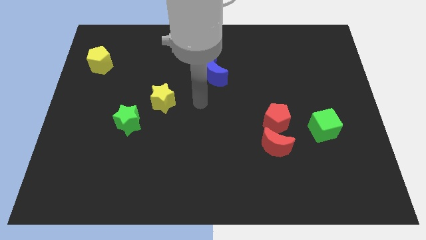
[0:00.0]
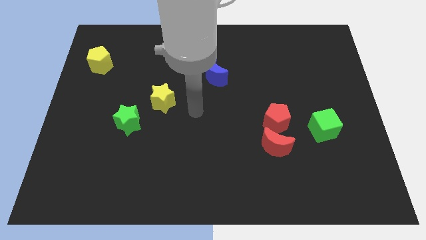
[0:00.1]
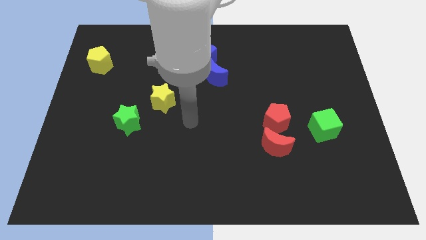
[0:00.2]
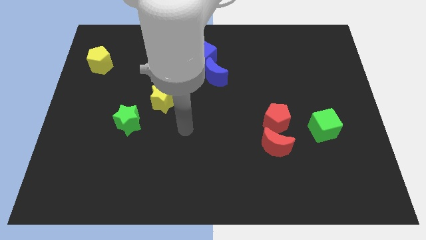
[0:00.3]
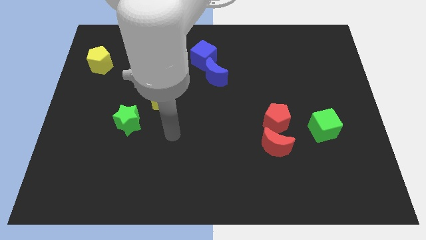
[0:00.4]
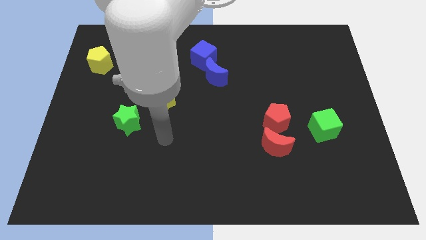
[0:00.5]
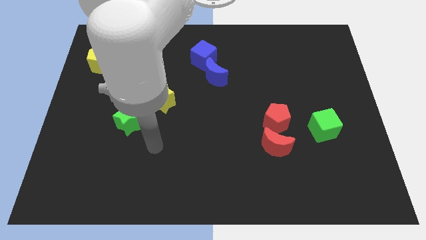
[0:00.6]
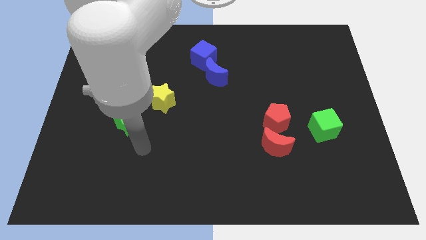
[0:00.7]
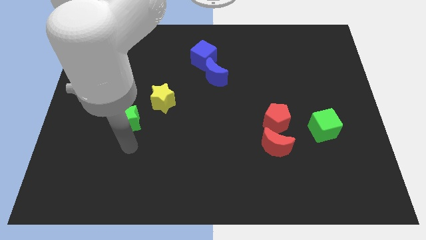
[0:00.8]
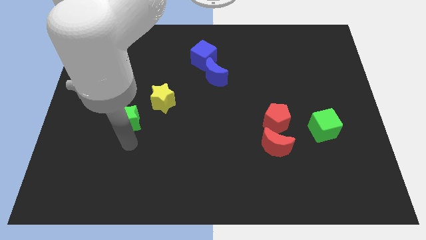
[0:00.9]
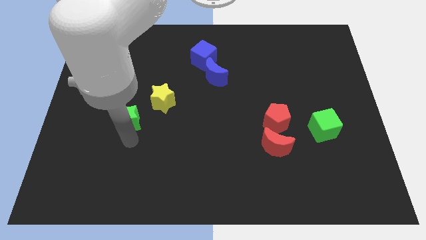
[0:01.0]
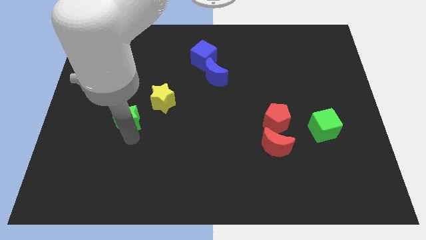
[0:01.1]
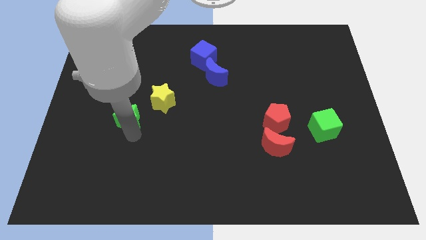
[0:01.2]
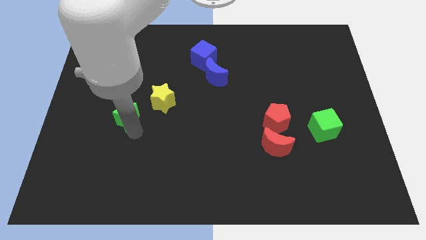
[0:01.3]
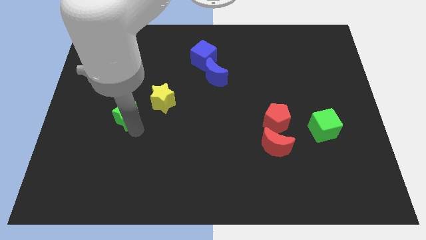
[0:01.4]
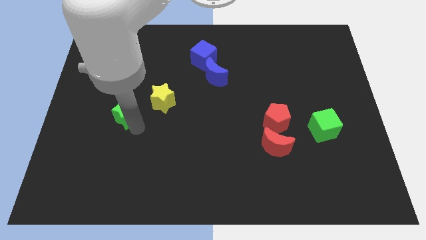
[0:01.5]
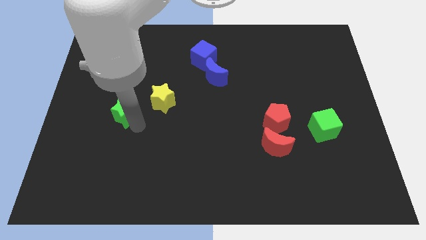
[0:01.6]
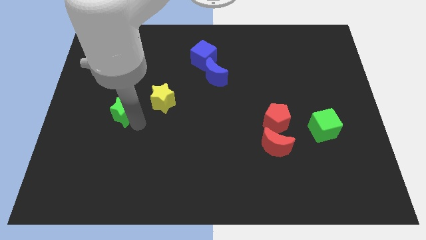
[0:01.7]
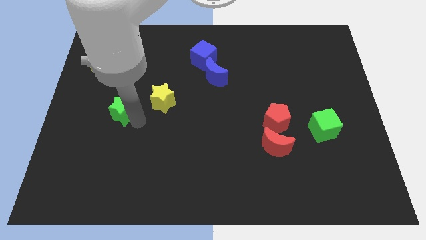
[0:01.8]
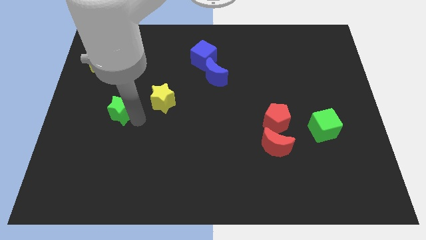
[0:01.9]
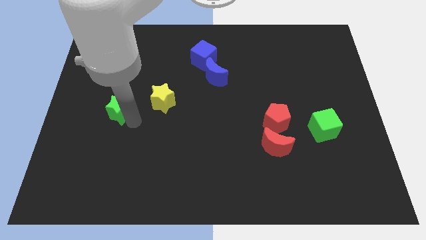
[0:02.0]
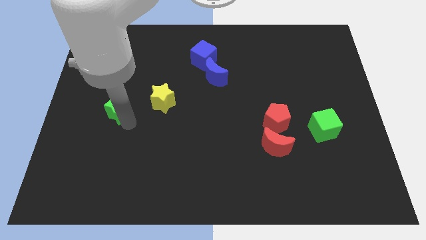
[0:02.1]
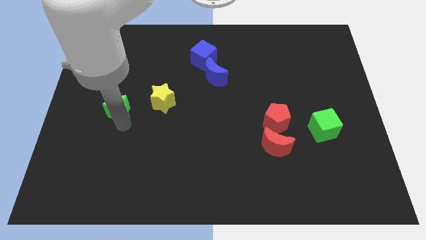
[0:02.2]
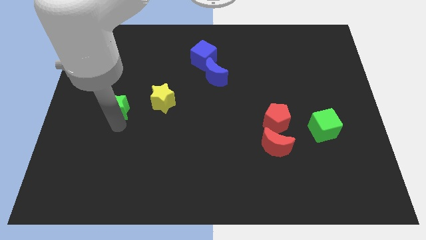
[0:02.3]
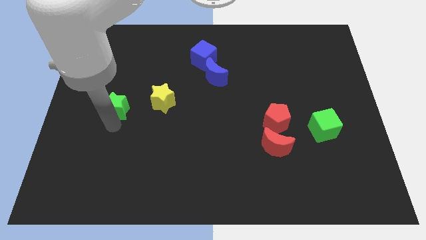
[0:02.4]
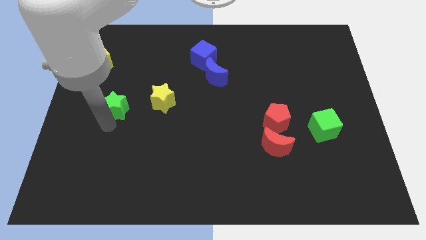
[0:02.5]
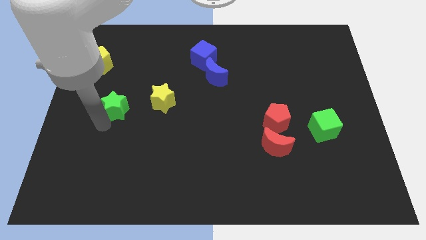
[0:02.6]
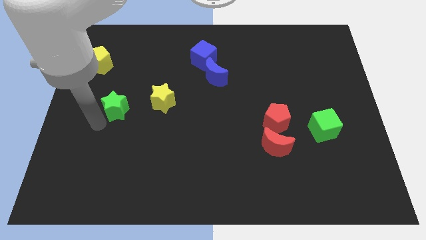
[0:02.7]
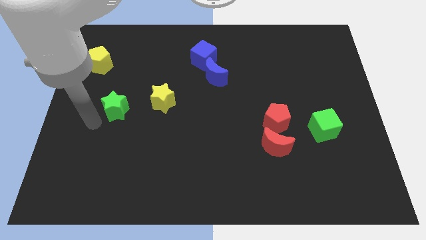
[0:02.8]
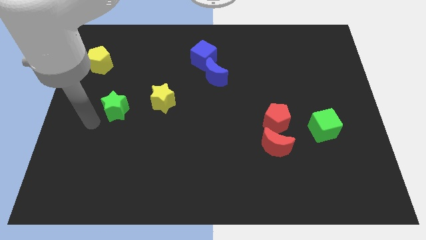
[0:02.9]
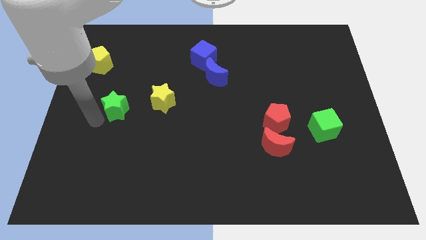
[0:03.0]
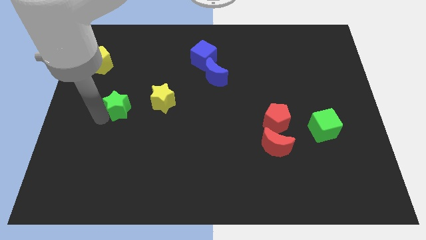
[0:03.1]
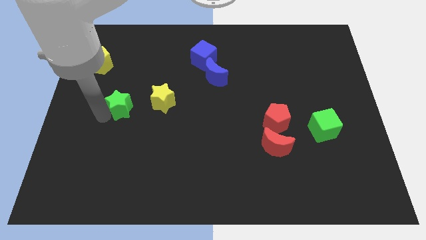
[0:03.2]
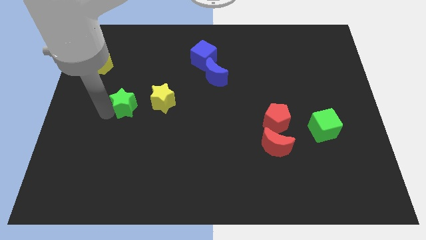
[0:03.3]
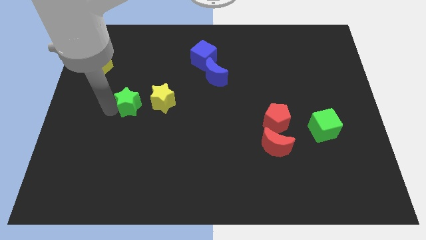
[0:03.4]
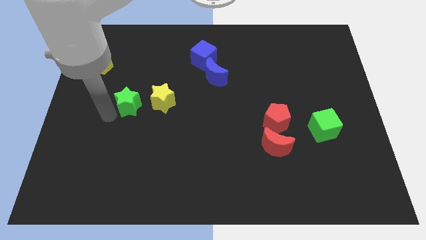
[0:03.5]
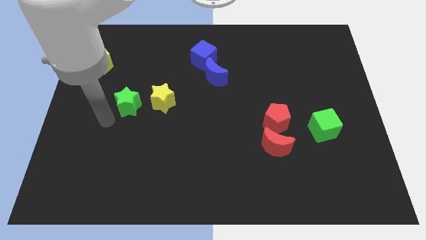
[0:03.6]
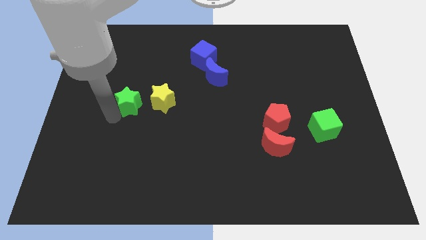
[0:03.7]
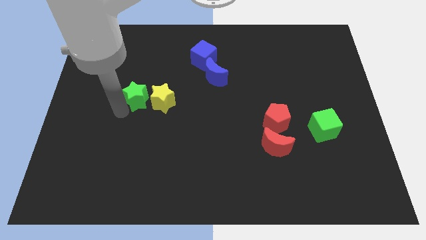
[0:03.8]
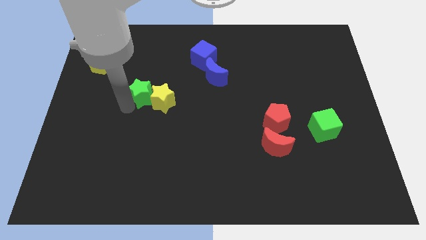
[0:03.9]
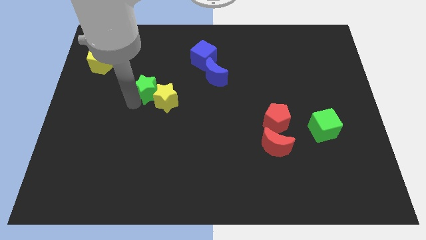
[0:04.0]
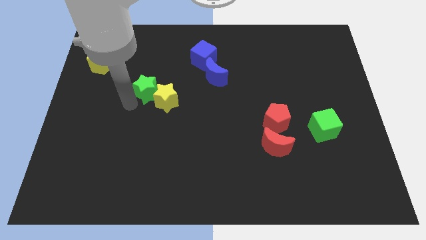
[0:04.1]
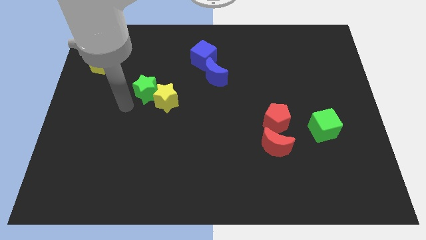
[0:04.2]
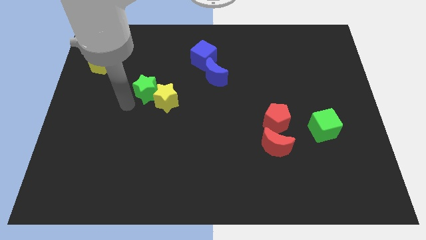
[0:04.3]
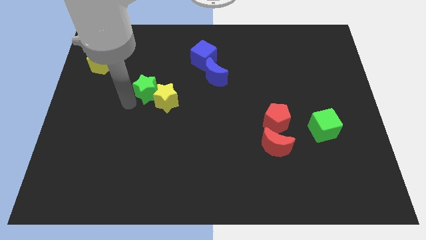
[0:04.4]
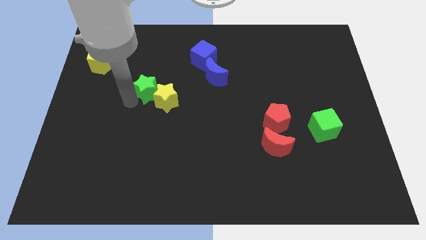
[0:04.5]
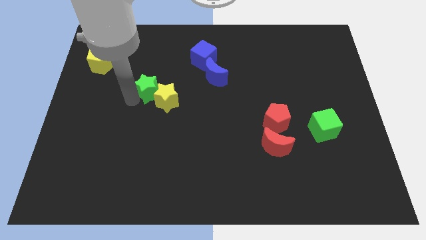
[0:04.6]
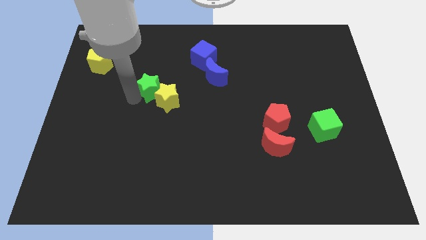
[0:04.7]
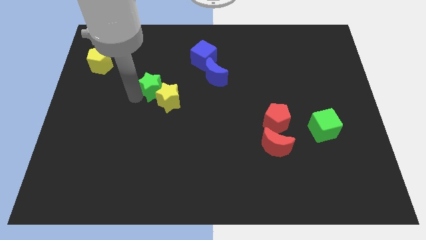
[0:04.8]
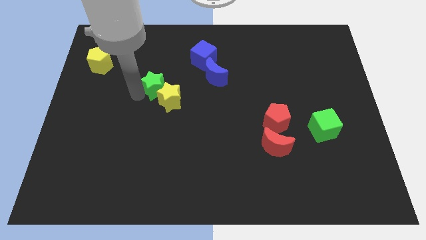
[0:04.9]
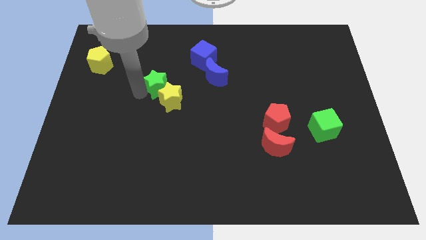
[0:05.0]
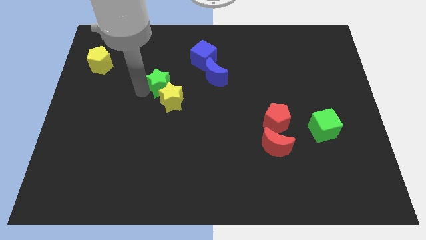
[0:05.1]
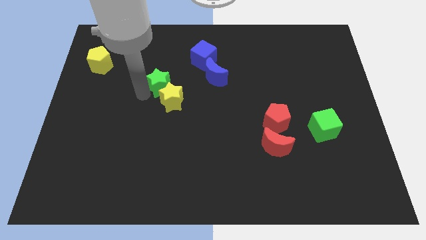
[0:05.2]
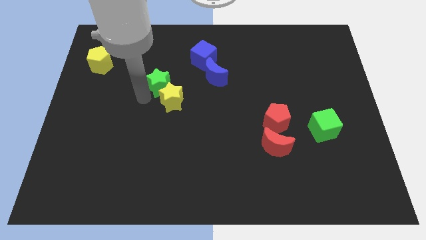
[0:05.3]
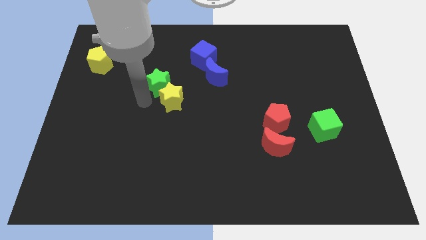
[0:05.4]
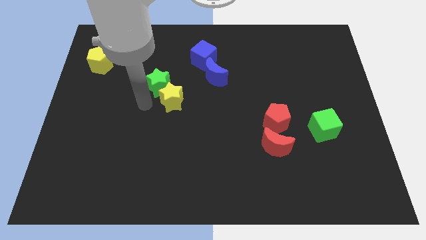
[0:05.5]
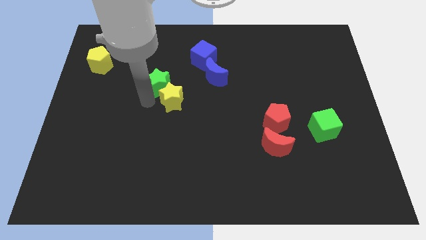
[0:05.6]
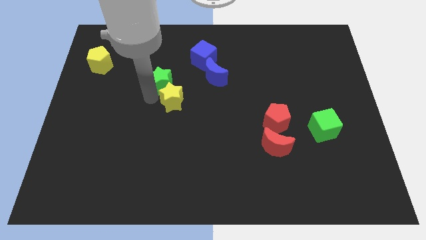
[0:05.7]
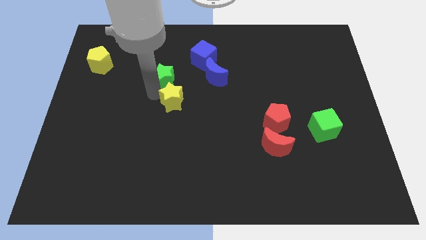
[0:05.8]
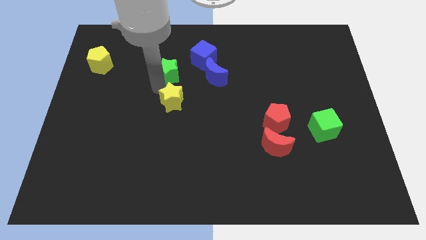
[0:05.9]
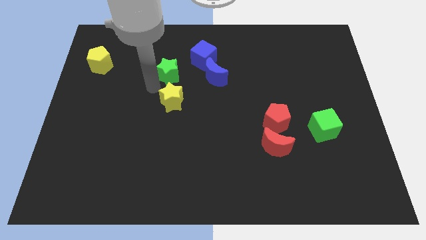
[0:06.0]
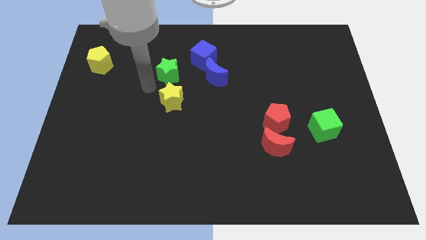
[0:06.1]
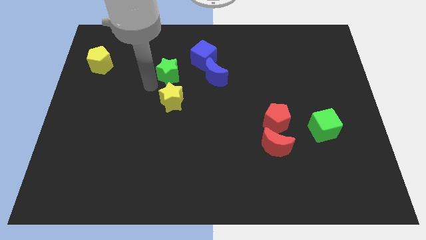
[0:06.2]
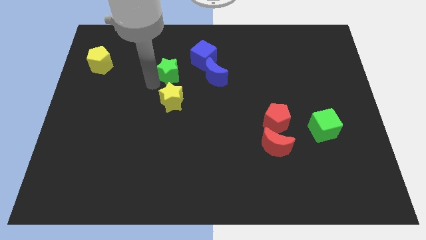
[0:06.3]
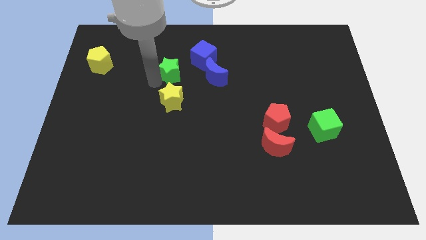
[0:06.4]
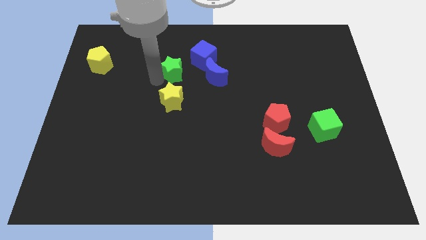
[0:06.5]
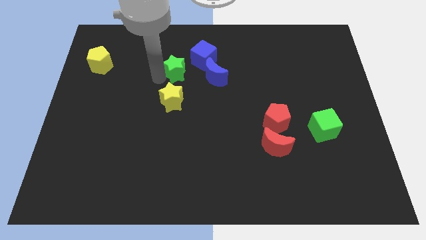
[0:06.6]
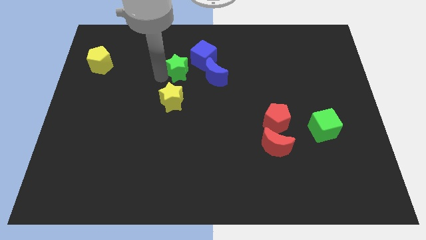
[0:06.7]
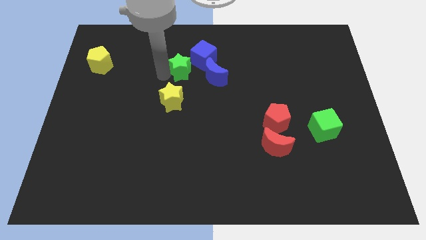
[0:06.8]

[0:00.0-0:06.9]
push the green star diagonally up and to the left of the blue moon
